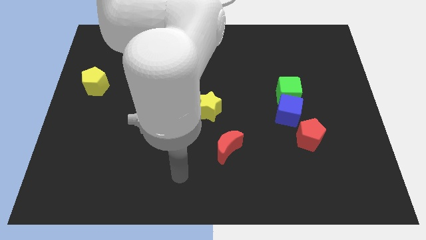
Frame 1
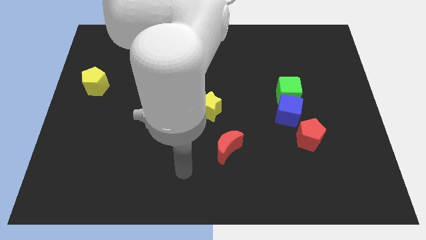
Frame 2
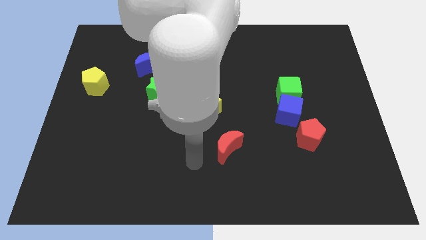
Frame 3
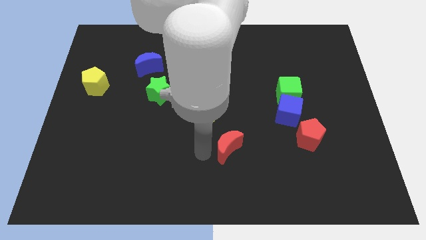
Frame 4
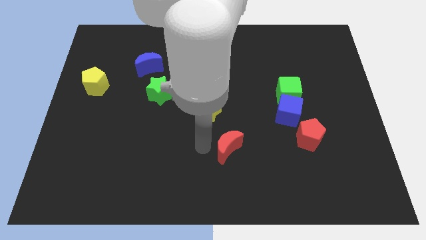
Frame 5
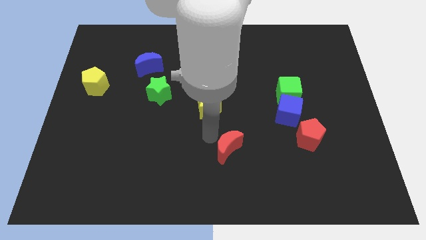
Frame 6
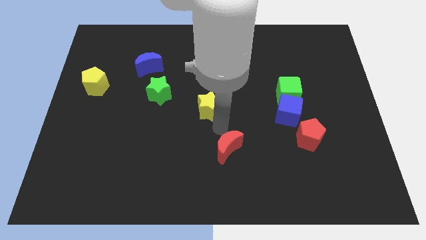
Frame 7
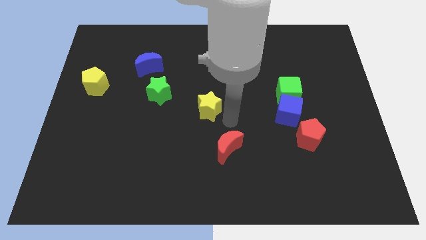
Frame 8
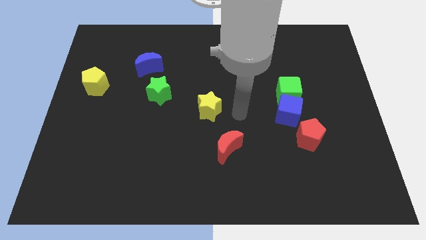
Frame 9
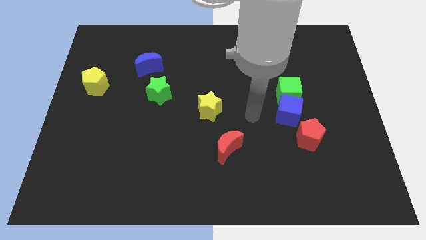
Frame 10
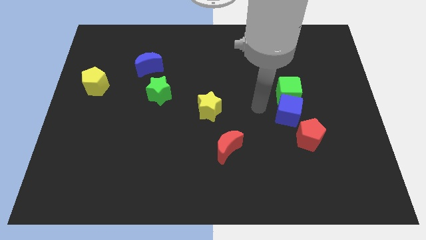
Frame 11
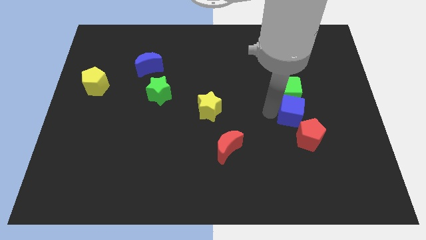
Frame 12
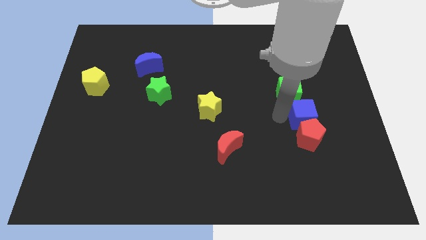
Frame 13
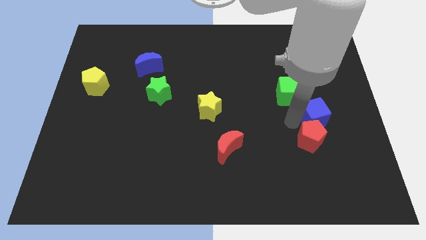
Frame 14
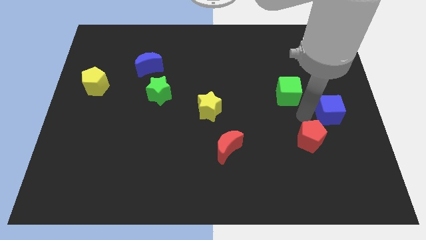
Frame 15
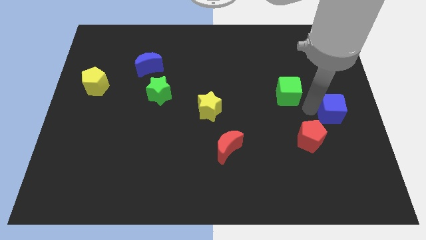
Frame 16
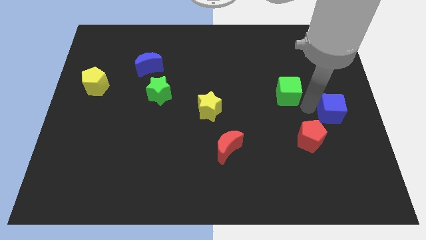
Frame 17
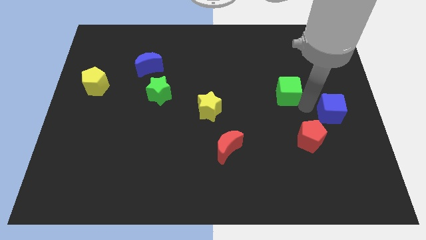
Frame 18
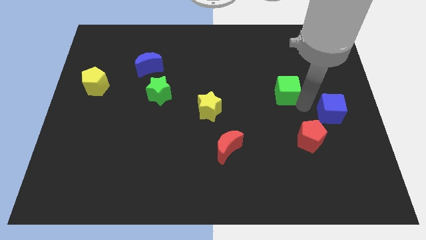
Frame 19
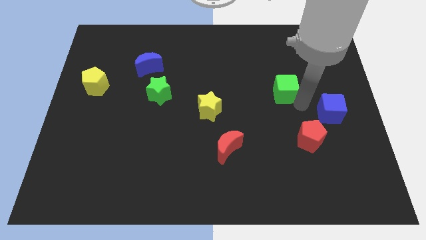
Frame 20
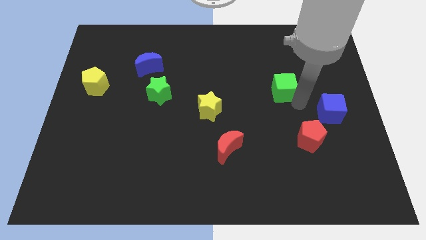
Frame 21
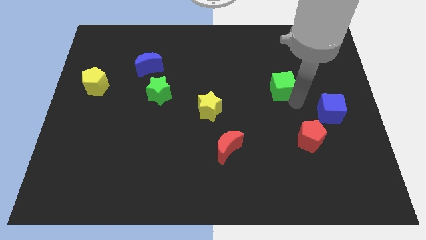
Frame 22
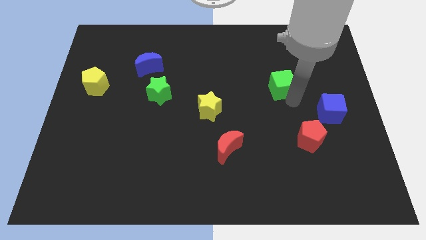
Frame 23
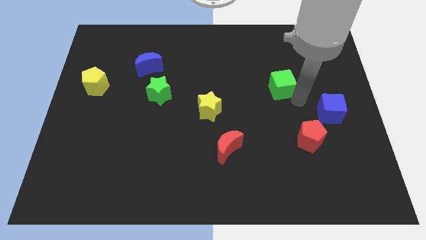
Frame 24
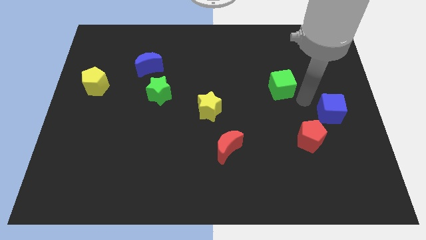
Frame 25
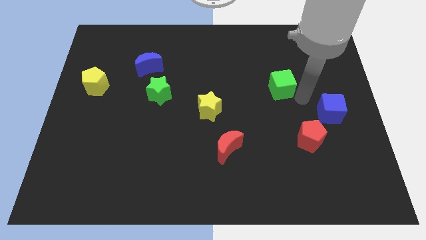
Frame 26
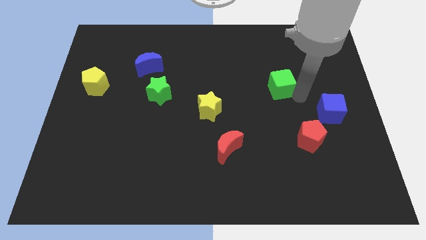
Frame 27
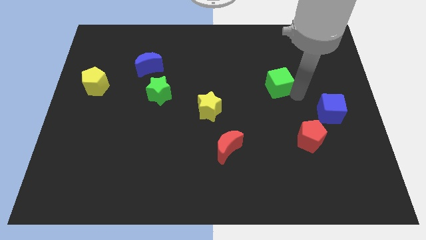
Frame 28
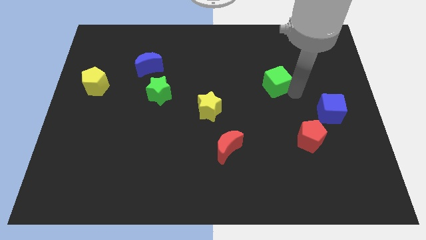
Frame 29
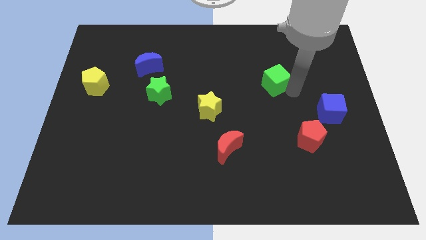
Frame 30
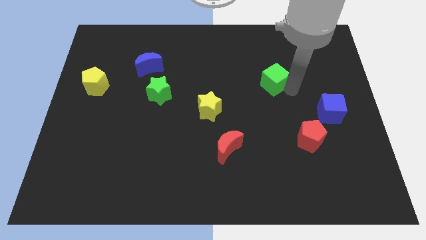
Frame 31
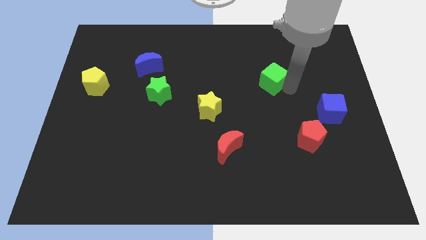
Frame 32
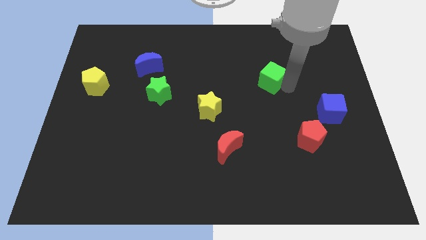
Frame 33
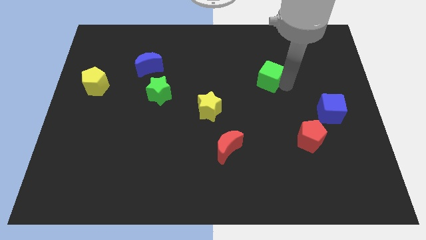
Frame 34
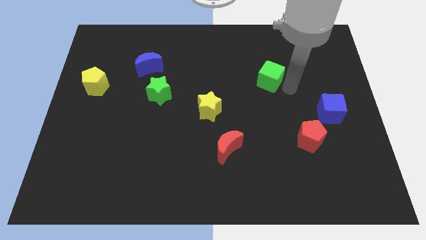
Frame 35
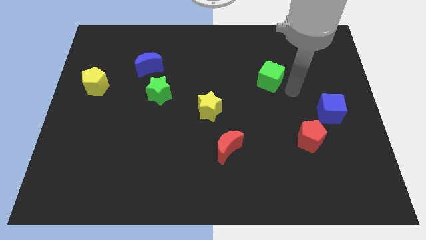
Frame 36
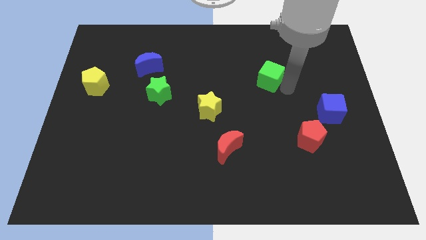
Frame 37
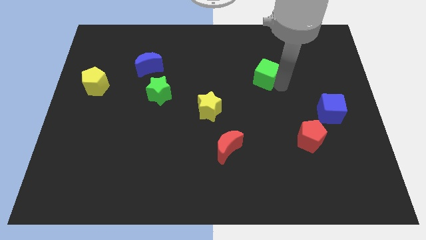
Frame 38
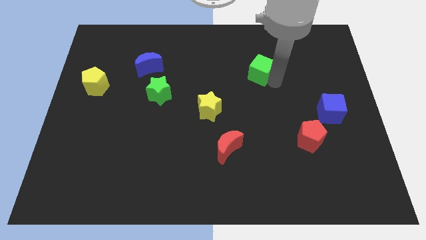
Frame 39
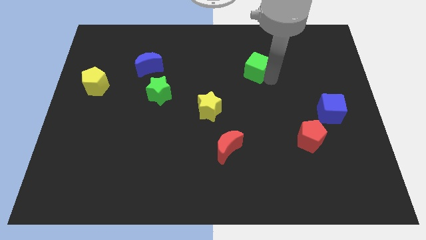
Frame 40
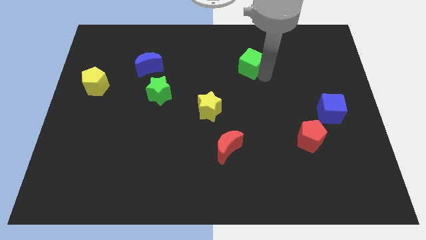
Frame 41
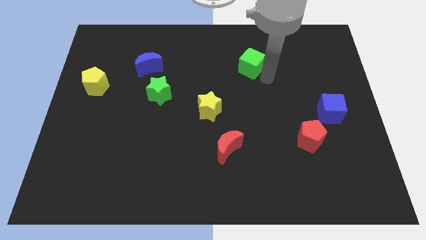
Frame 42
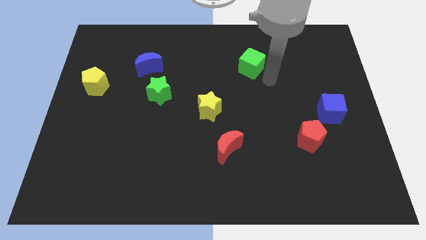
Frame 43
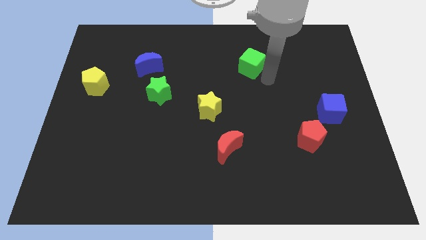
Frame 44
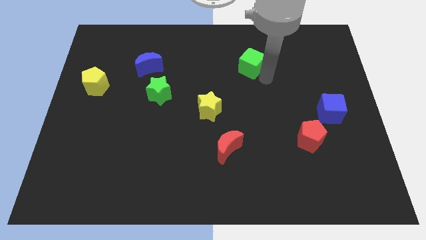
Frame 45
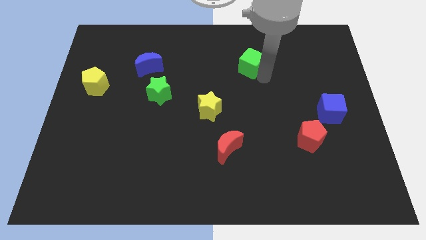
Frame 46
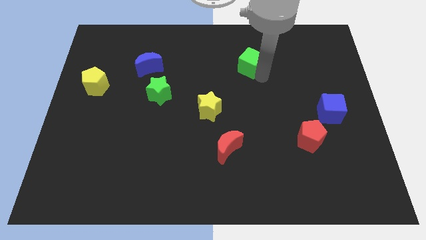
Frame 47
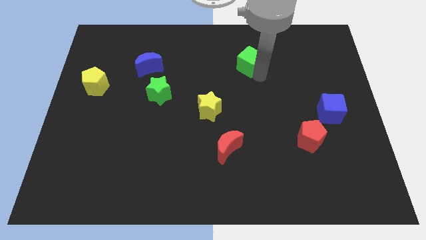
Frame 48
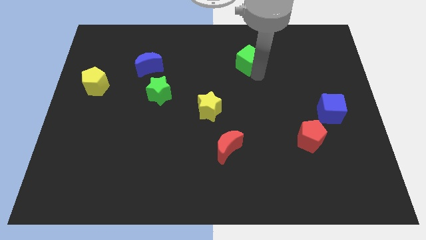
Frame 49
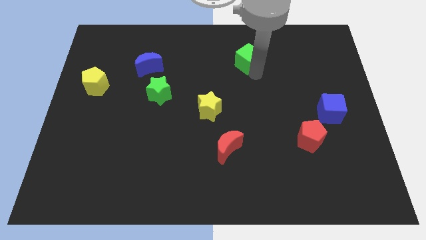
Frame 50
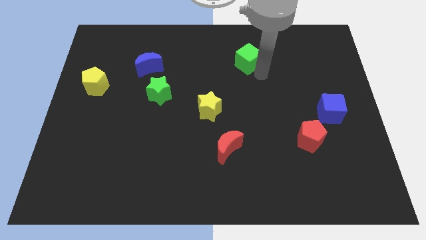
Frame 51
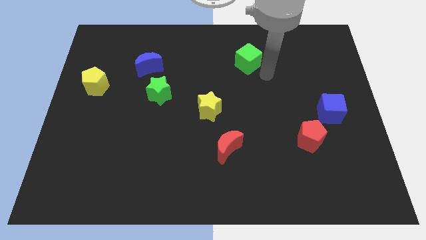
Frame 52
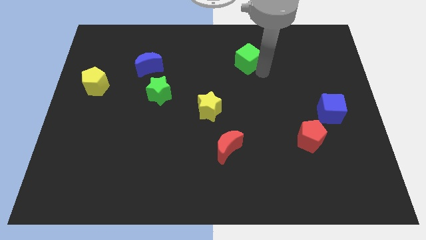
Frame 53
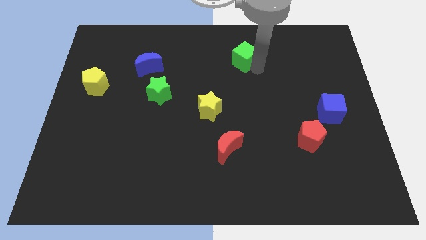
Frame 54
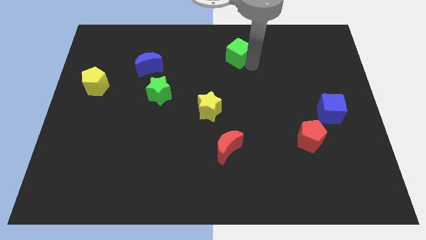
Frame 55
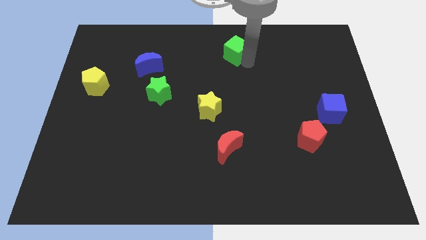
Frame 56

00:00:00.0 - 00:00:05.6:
slide the green cube to the top

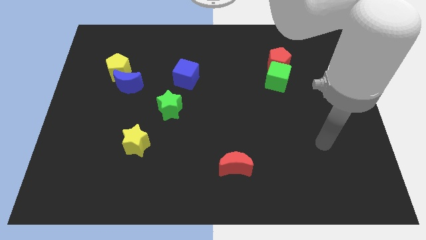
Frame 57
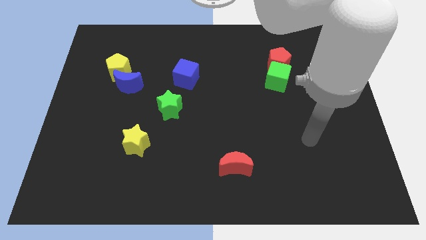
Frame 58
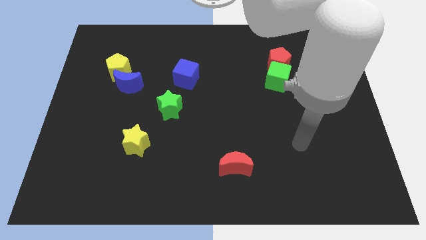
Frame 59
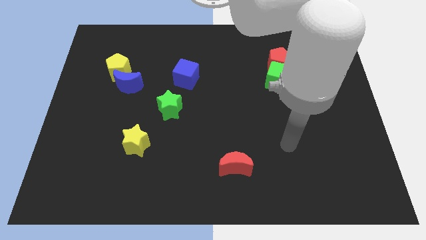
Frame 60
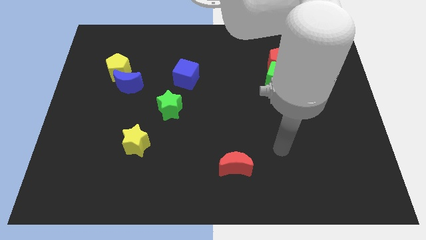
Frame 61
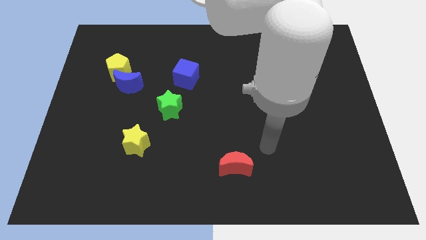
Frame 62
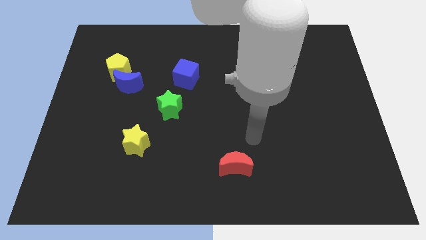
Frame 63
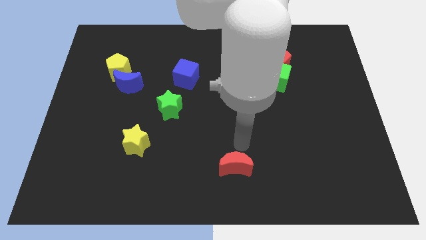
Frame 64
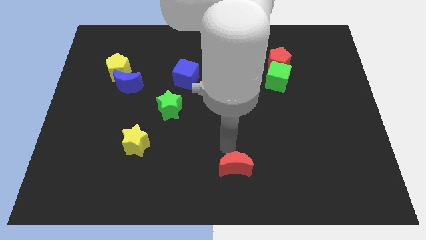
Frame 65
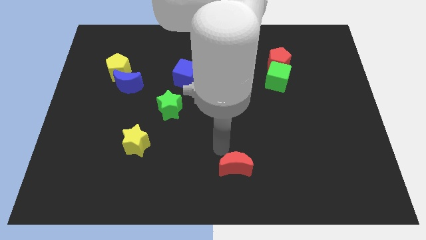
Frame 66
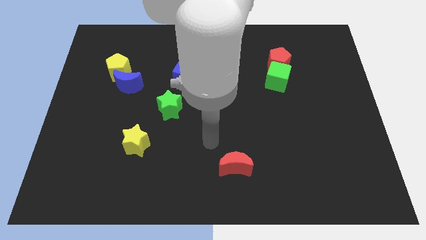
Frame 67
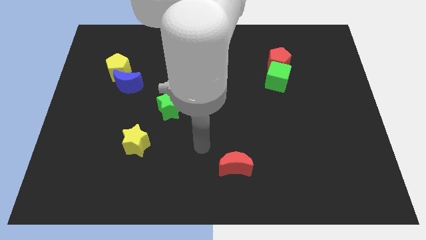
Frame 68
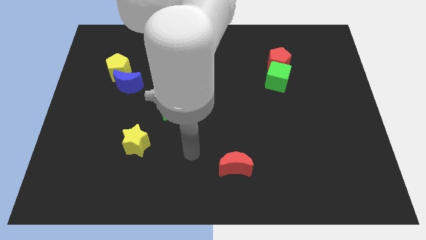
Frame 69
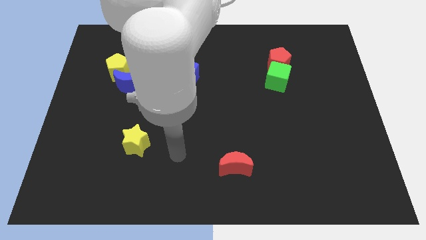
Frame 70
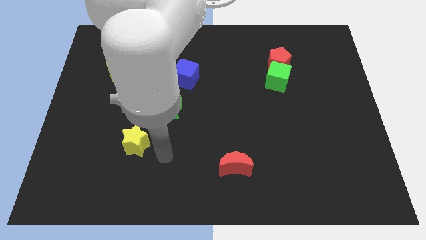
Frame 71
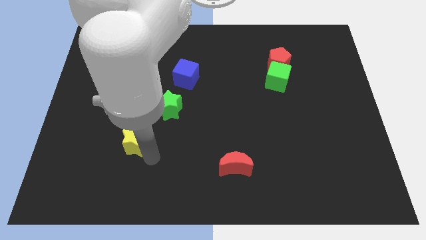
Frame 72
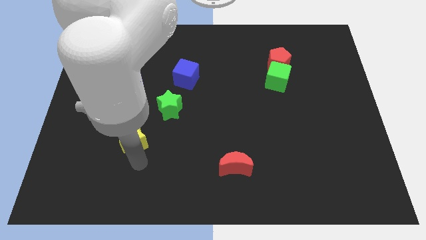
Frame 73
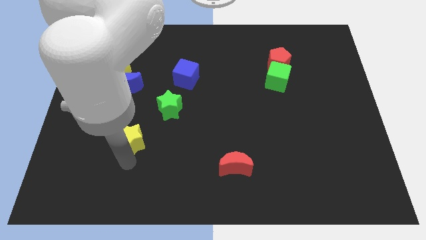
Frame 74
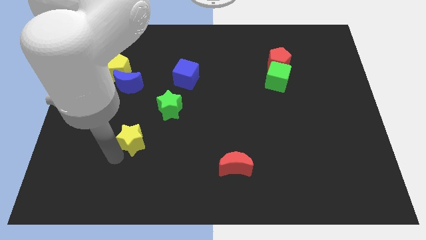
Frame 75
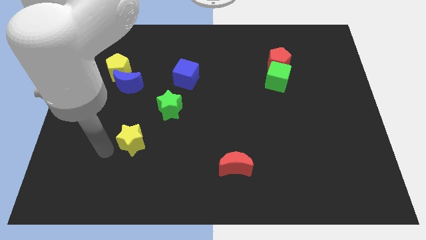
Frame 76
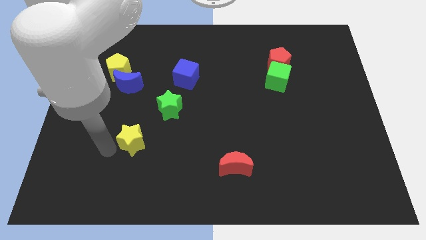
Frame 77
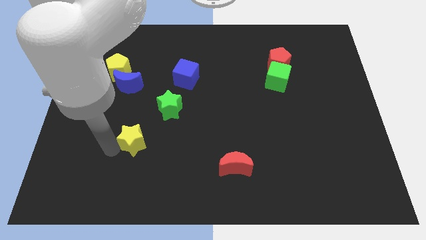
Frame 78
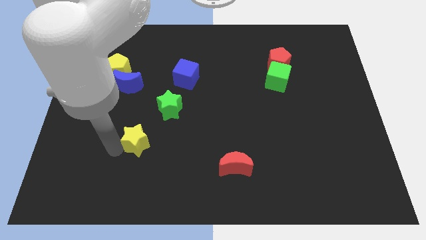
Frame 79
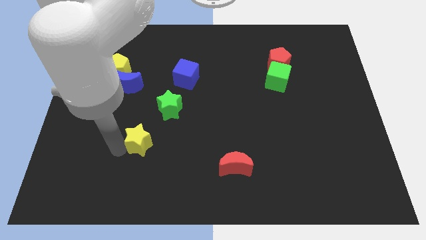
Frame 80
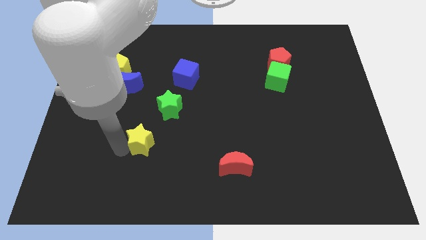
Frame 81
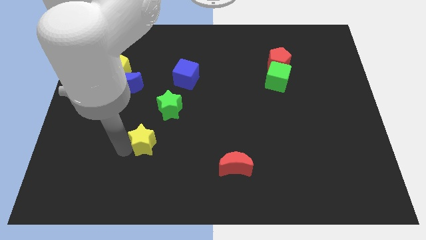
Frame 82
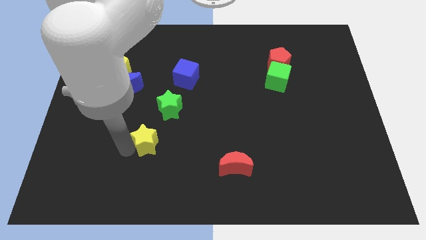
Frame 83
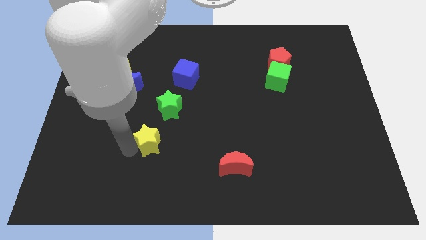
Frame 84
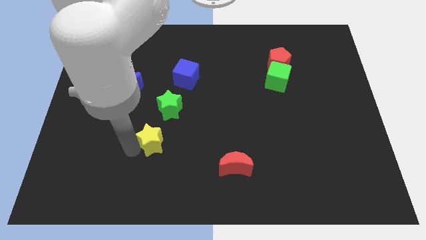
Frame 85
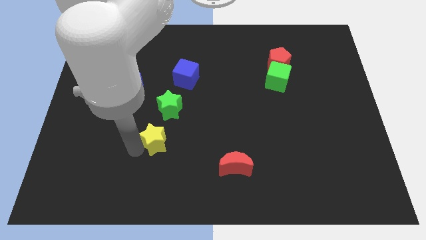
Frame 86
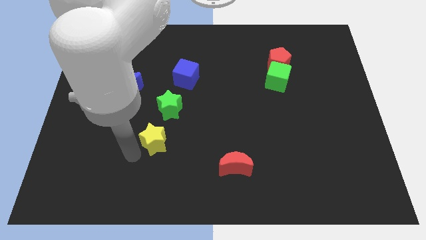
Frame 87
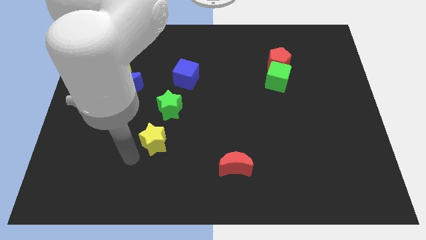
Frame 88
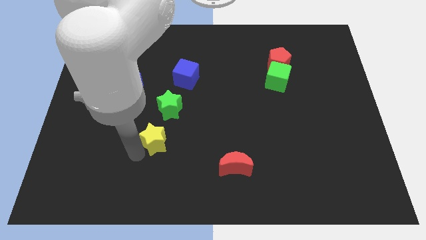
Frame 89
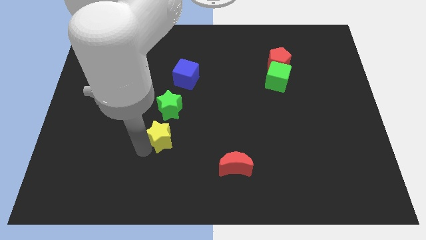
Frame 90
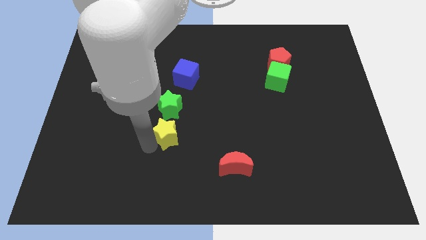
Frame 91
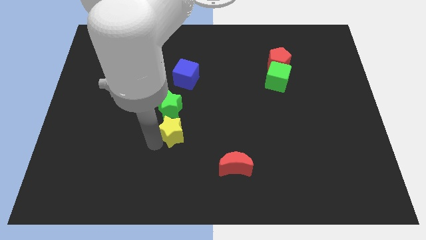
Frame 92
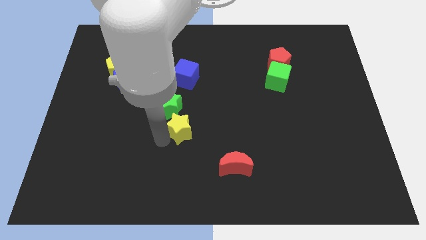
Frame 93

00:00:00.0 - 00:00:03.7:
move the yellow star to the middle of the board
